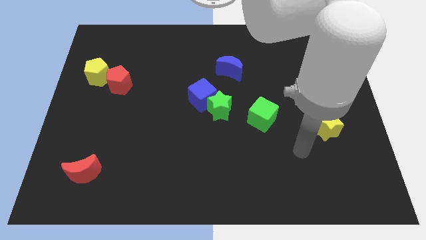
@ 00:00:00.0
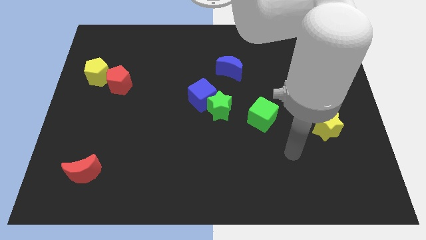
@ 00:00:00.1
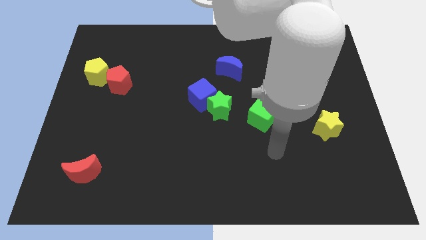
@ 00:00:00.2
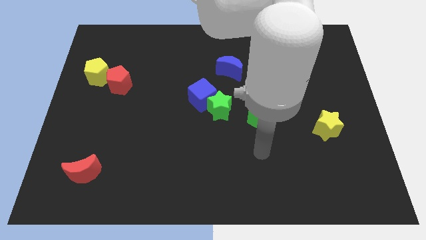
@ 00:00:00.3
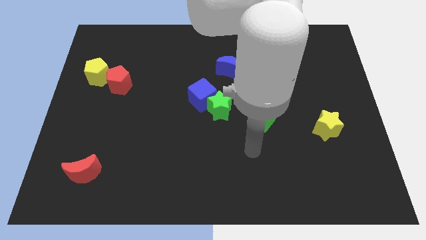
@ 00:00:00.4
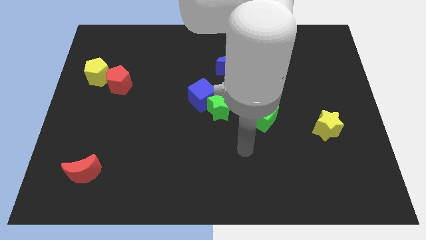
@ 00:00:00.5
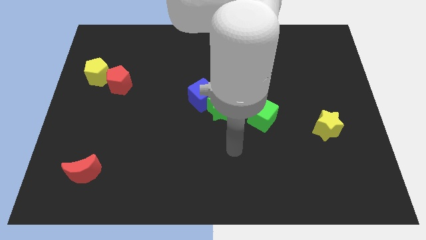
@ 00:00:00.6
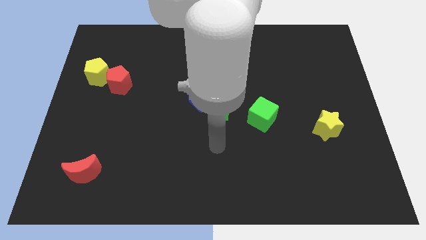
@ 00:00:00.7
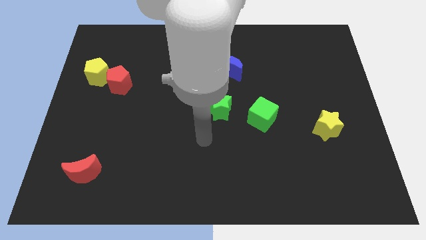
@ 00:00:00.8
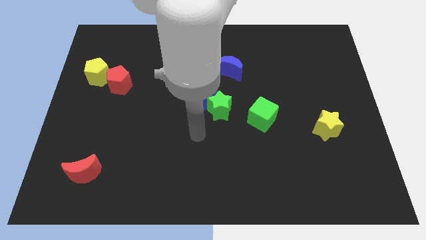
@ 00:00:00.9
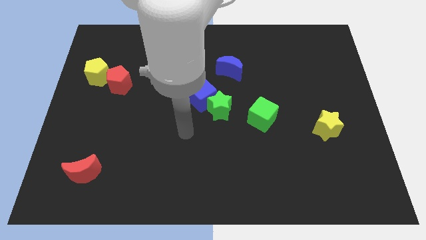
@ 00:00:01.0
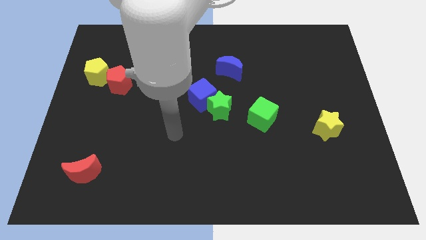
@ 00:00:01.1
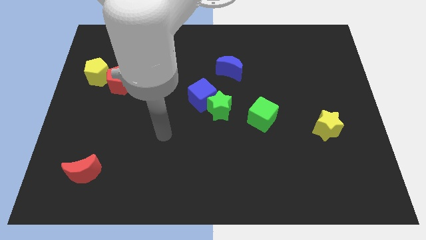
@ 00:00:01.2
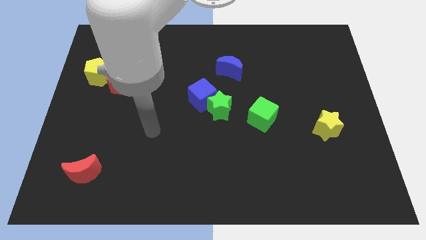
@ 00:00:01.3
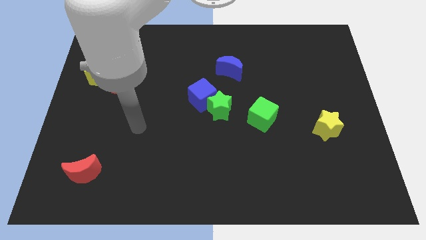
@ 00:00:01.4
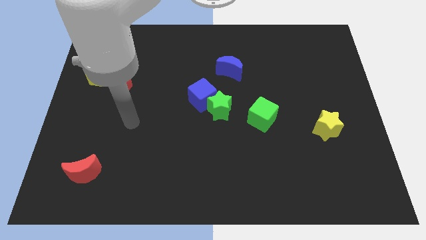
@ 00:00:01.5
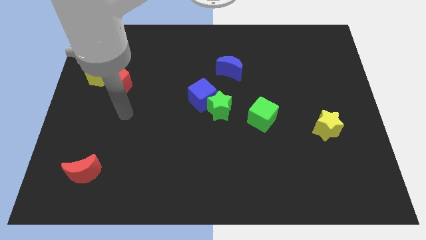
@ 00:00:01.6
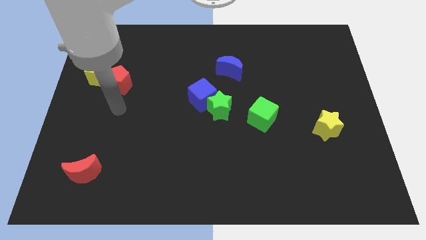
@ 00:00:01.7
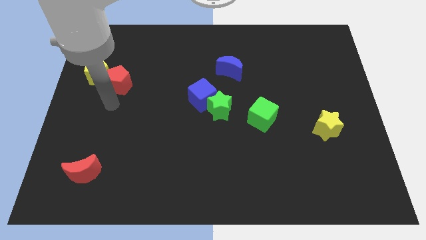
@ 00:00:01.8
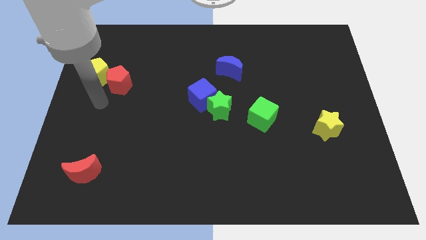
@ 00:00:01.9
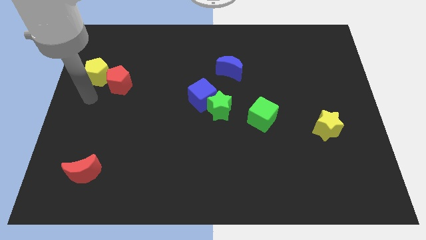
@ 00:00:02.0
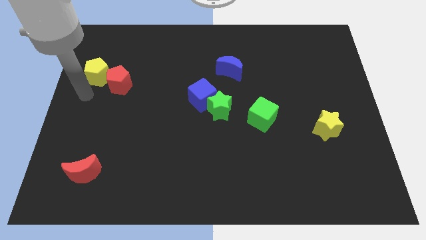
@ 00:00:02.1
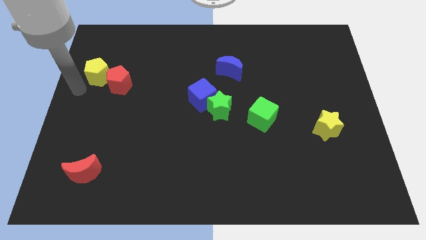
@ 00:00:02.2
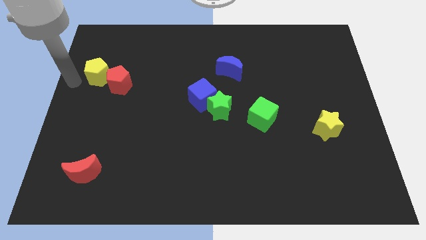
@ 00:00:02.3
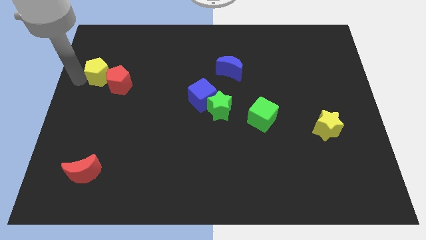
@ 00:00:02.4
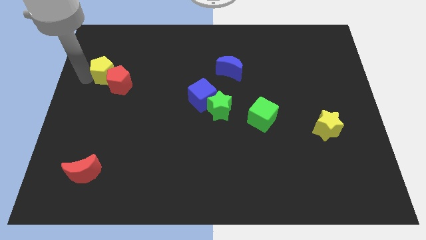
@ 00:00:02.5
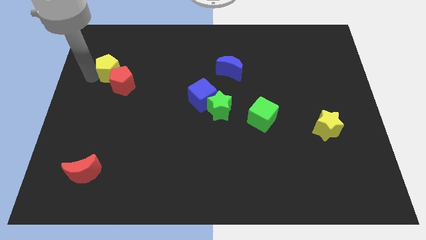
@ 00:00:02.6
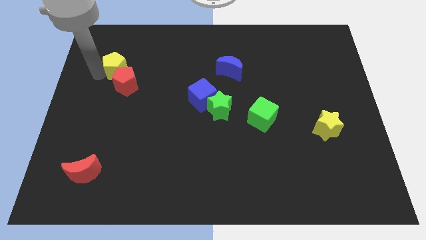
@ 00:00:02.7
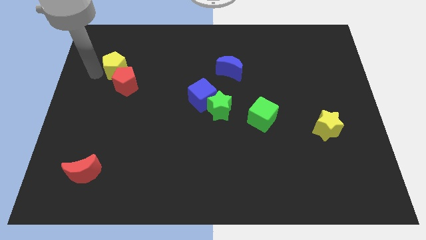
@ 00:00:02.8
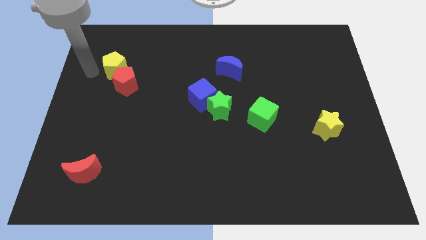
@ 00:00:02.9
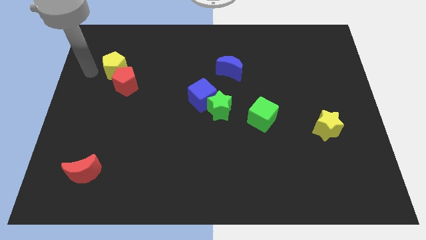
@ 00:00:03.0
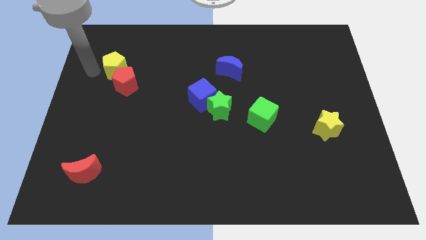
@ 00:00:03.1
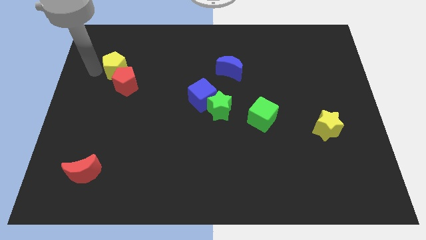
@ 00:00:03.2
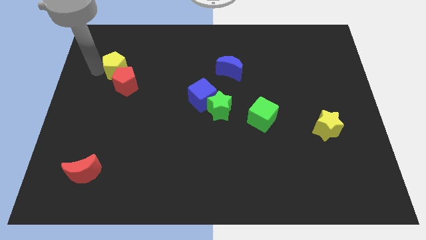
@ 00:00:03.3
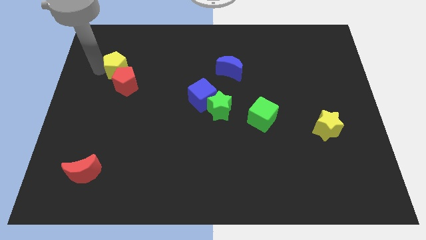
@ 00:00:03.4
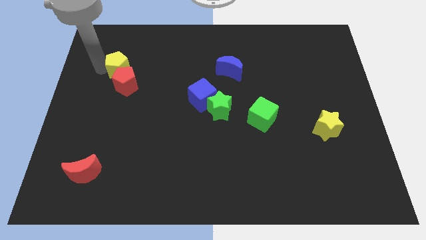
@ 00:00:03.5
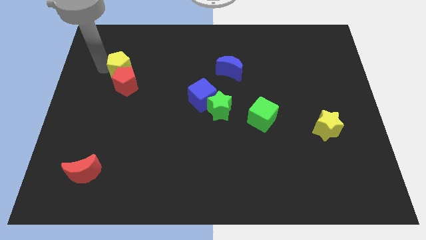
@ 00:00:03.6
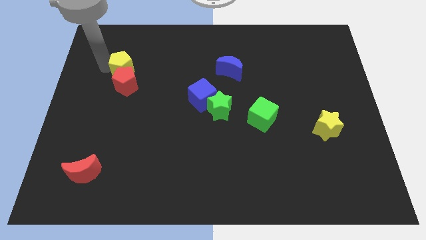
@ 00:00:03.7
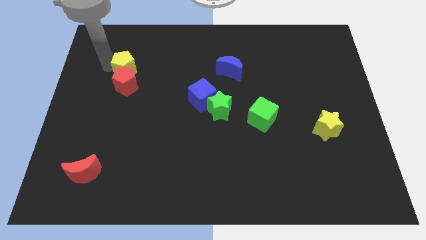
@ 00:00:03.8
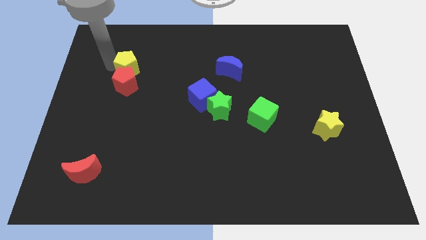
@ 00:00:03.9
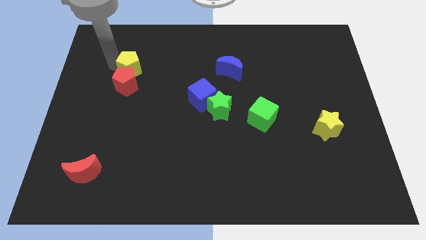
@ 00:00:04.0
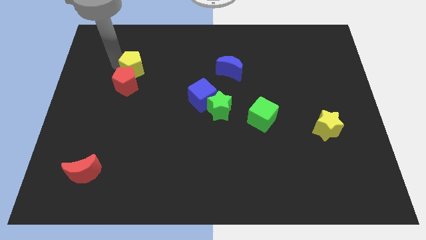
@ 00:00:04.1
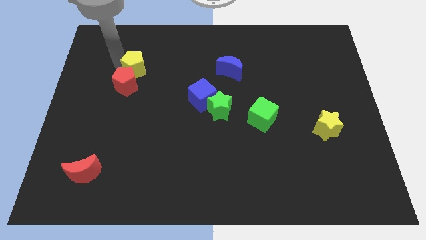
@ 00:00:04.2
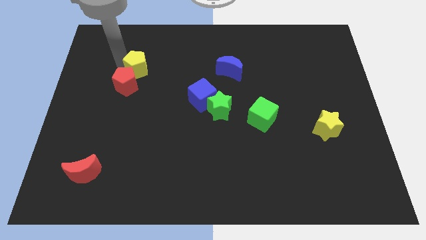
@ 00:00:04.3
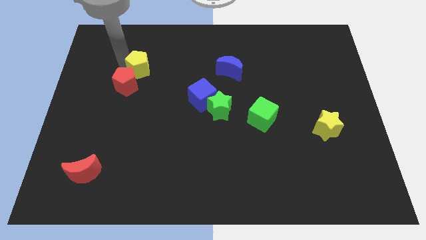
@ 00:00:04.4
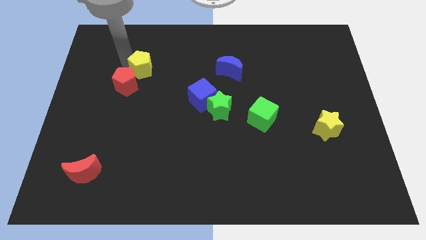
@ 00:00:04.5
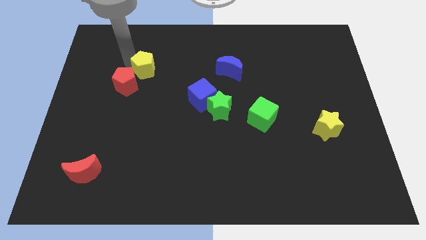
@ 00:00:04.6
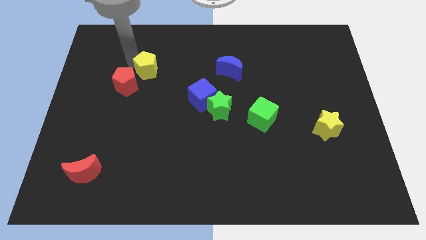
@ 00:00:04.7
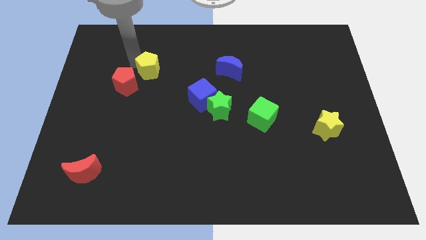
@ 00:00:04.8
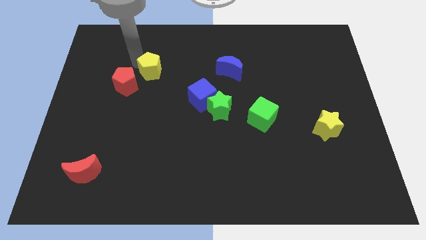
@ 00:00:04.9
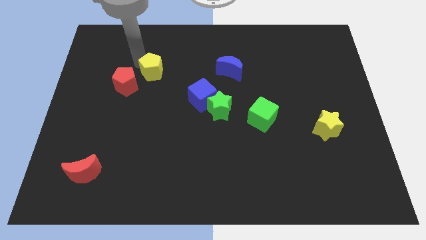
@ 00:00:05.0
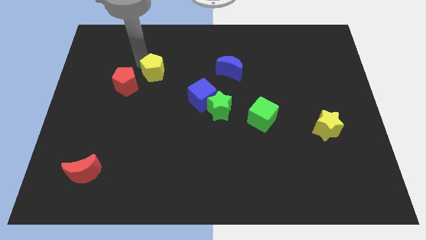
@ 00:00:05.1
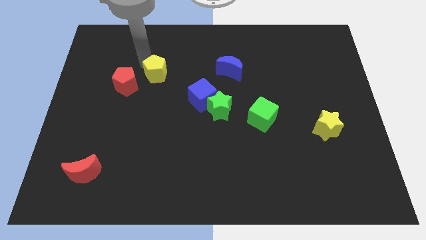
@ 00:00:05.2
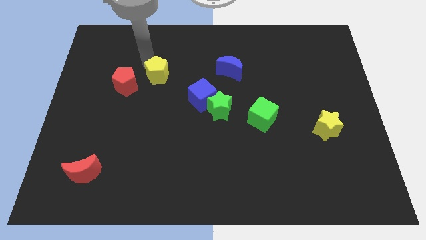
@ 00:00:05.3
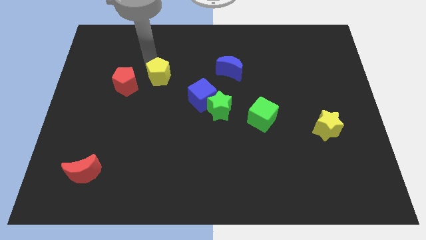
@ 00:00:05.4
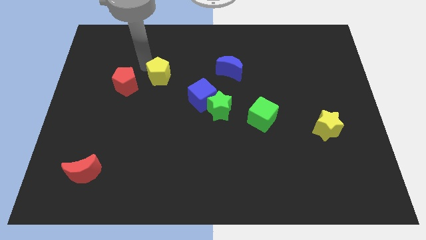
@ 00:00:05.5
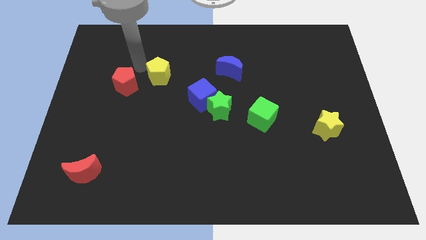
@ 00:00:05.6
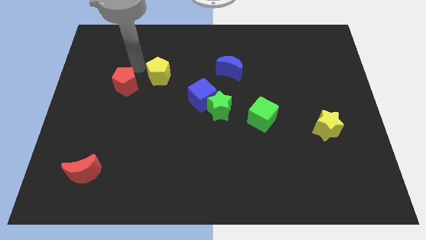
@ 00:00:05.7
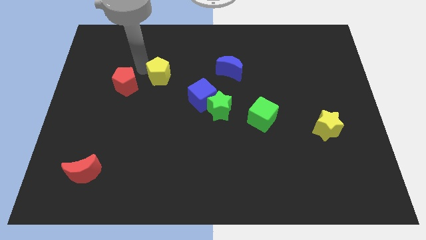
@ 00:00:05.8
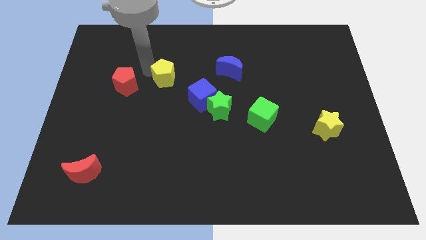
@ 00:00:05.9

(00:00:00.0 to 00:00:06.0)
put the yellow pentagon to the top left of the blue cube

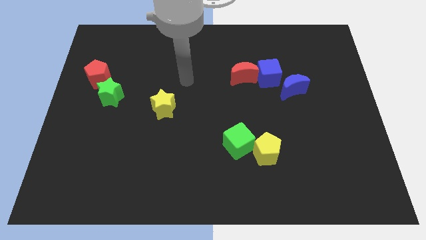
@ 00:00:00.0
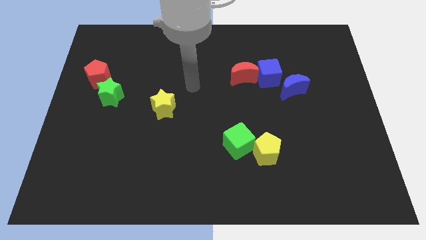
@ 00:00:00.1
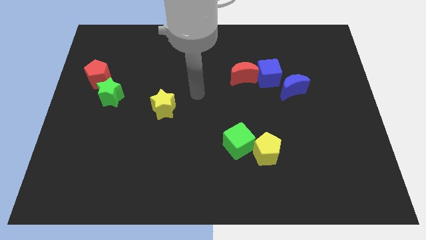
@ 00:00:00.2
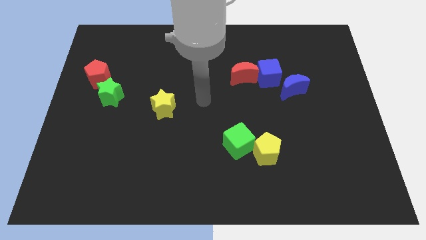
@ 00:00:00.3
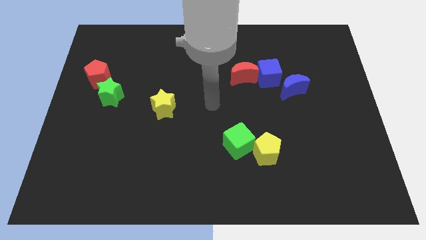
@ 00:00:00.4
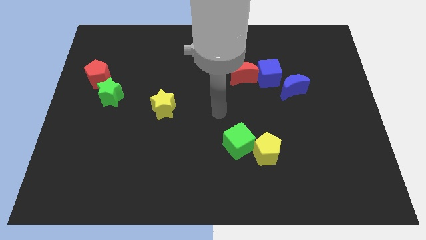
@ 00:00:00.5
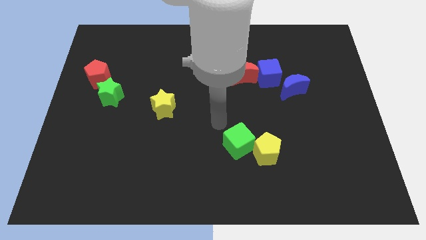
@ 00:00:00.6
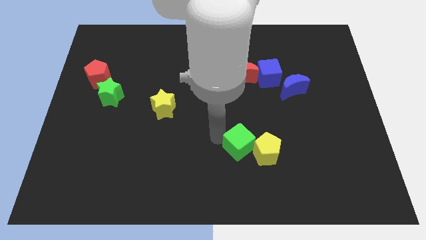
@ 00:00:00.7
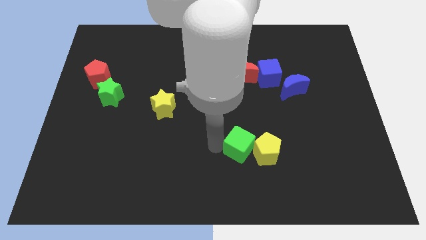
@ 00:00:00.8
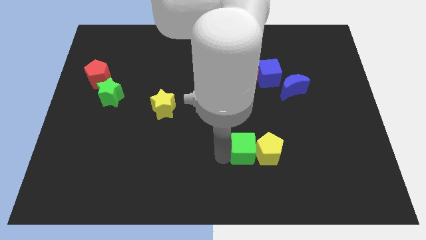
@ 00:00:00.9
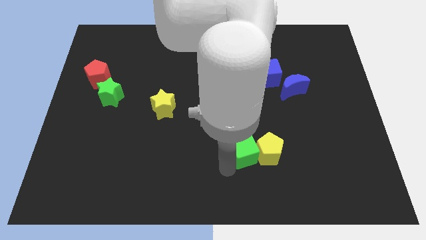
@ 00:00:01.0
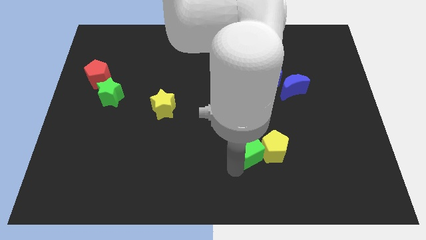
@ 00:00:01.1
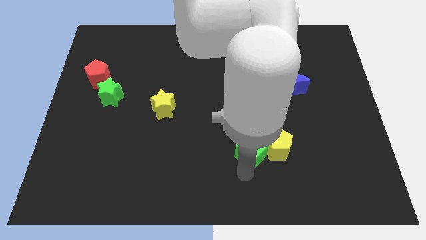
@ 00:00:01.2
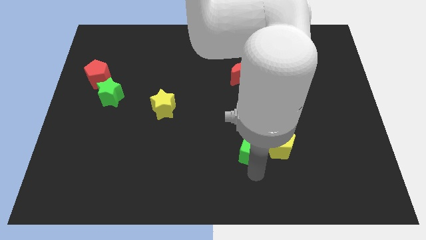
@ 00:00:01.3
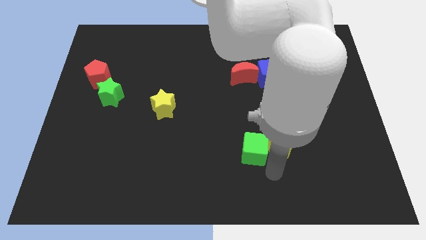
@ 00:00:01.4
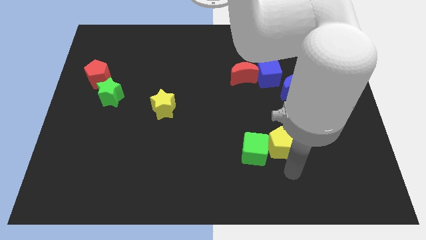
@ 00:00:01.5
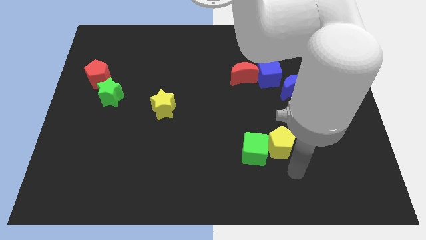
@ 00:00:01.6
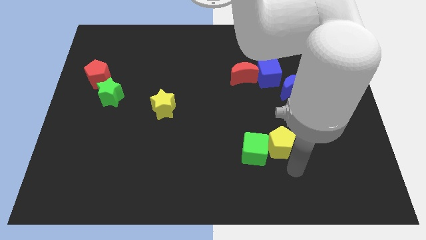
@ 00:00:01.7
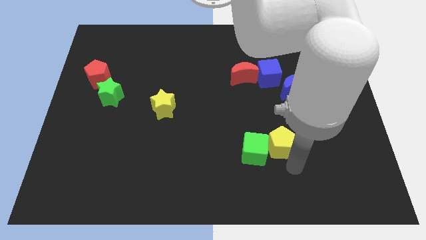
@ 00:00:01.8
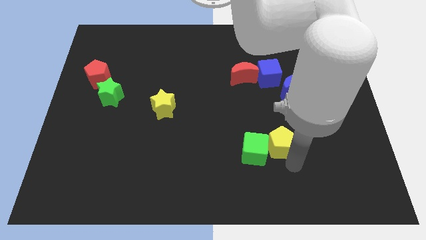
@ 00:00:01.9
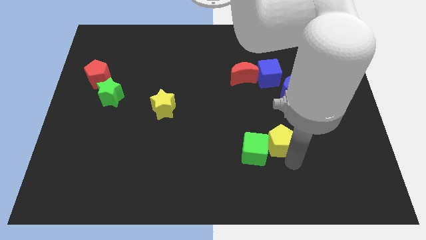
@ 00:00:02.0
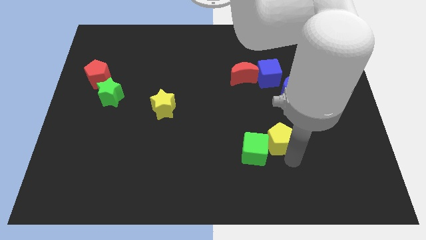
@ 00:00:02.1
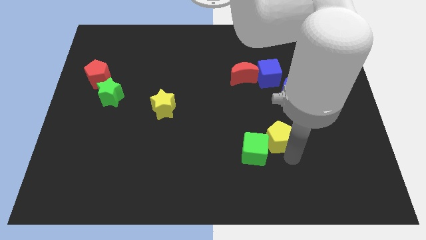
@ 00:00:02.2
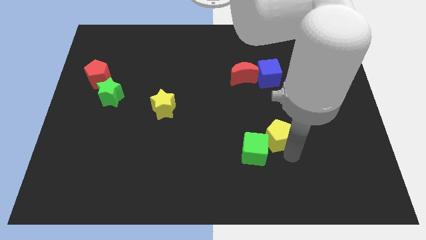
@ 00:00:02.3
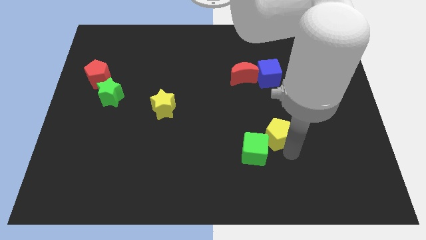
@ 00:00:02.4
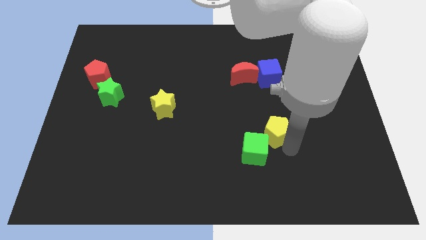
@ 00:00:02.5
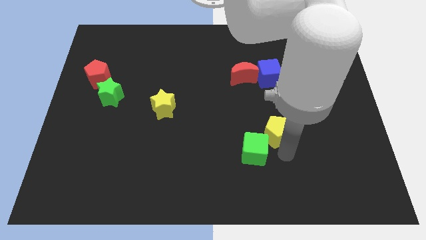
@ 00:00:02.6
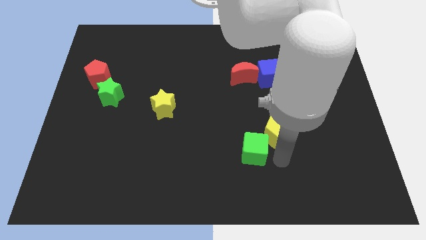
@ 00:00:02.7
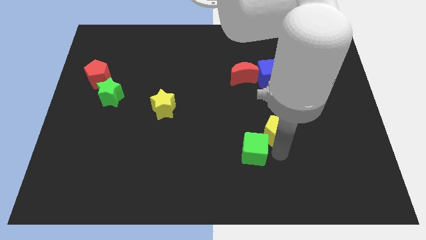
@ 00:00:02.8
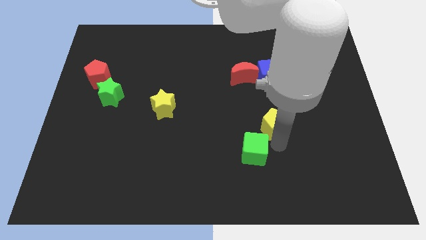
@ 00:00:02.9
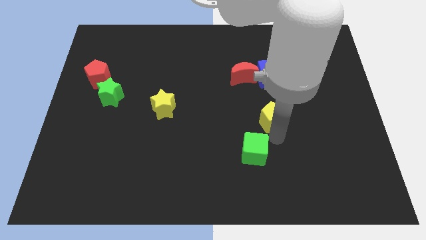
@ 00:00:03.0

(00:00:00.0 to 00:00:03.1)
push the yellow pentagon diagonally down and to the left of the blue moon
